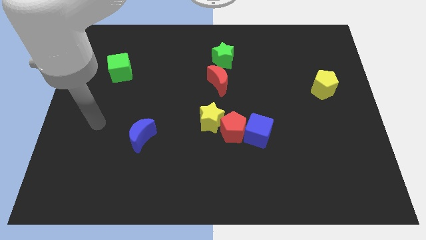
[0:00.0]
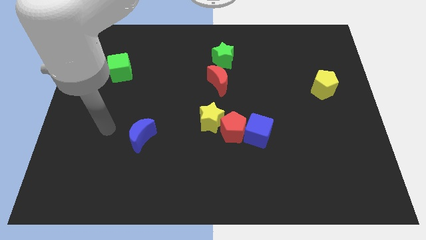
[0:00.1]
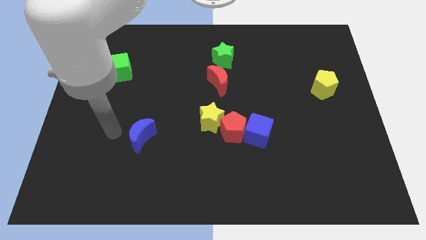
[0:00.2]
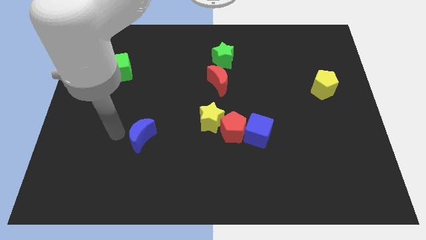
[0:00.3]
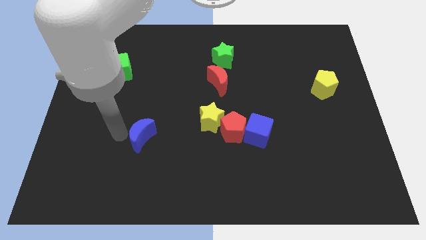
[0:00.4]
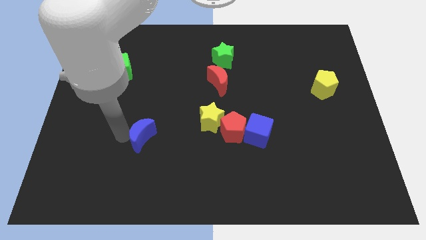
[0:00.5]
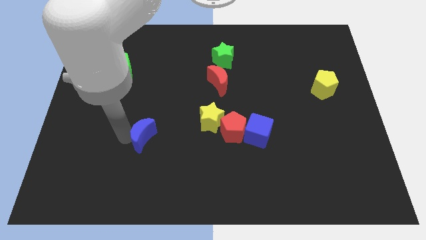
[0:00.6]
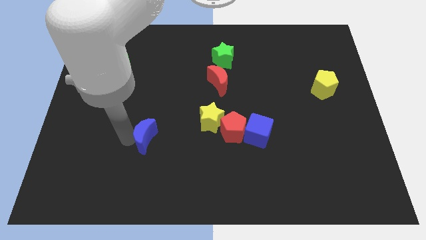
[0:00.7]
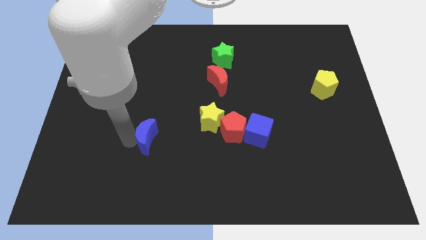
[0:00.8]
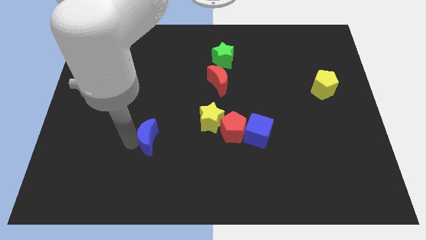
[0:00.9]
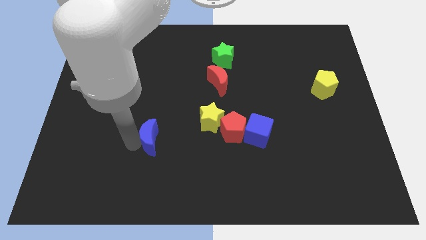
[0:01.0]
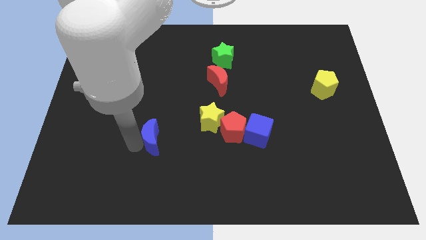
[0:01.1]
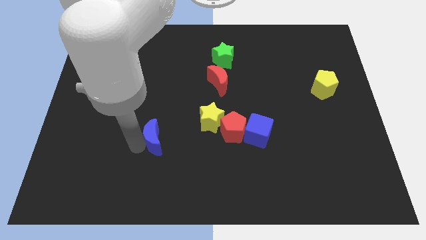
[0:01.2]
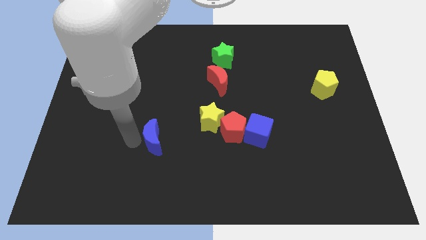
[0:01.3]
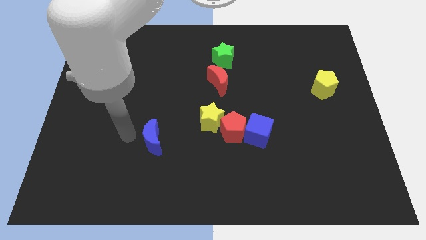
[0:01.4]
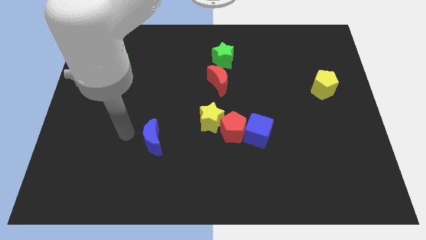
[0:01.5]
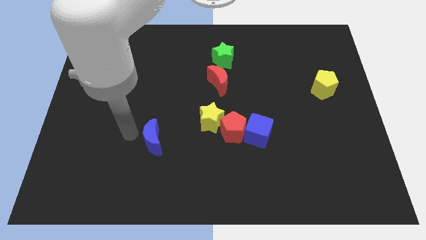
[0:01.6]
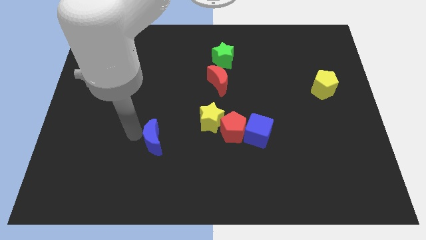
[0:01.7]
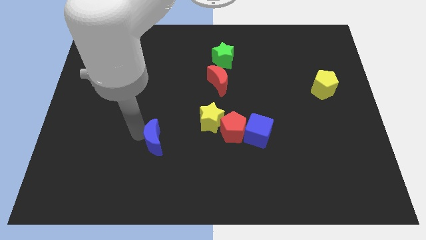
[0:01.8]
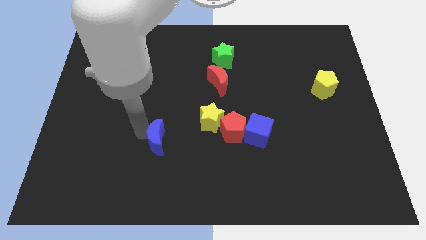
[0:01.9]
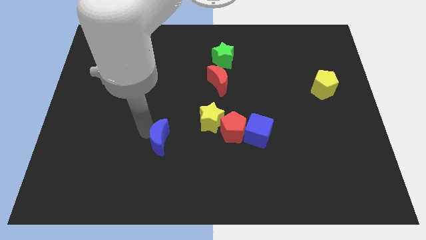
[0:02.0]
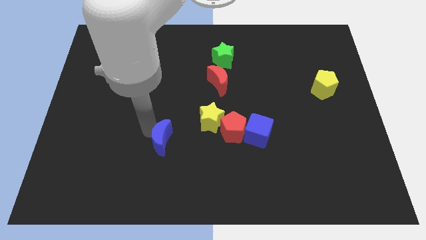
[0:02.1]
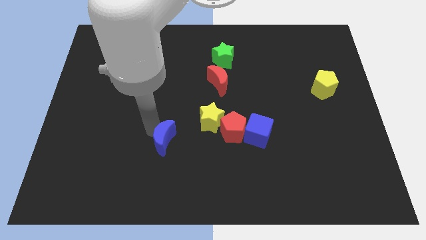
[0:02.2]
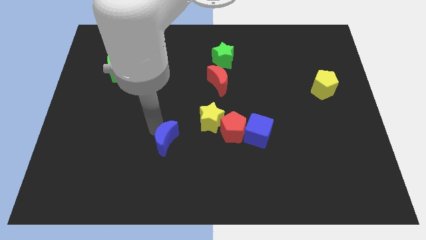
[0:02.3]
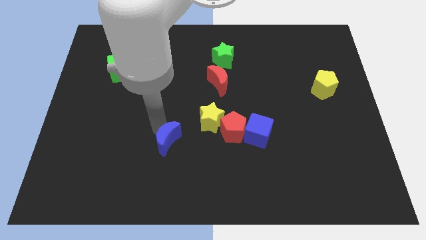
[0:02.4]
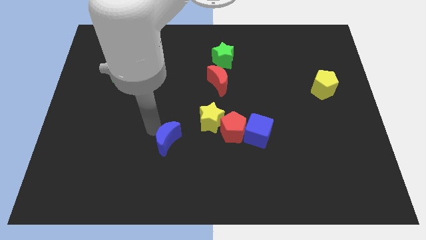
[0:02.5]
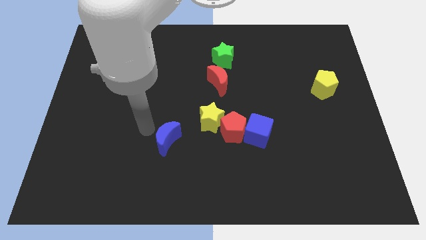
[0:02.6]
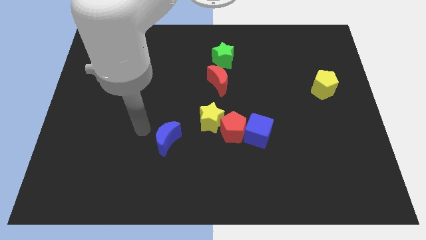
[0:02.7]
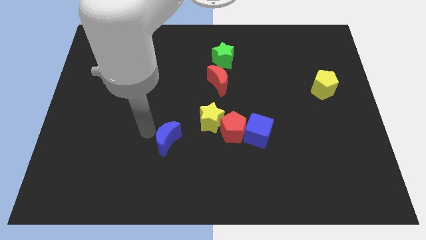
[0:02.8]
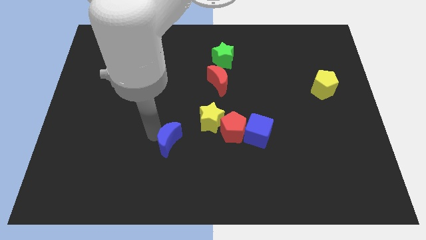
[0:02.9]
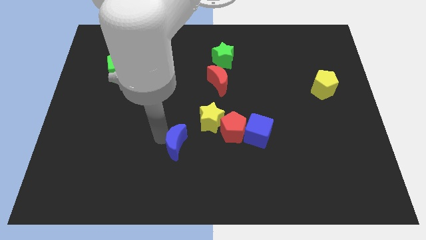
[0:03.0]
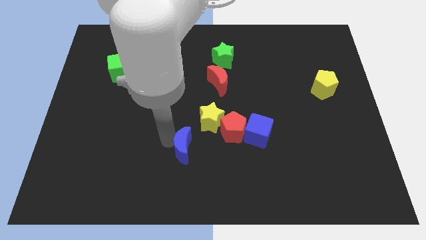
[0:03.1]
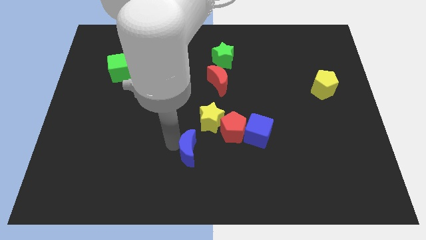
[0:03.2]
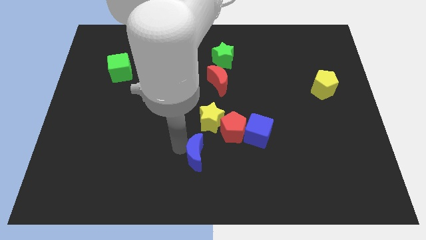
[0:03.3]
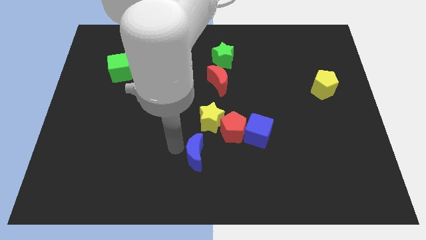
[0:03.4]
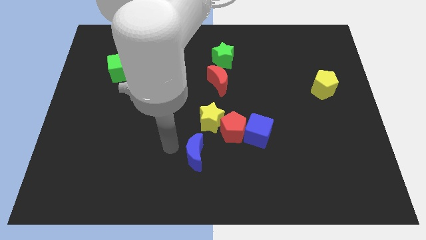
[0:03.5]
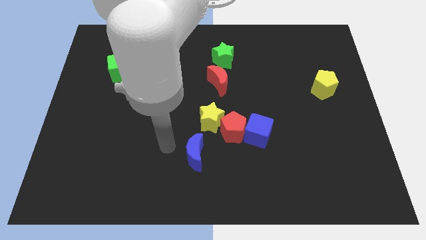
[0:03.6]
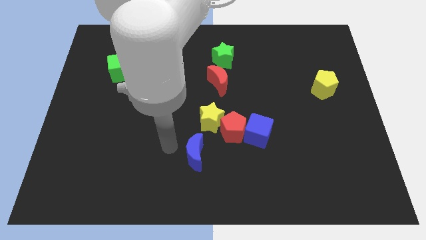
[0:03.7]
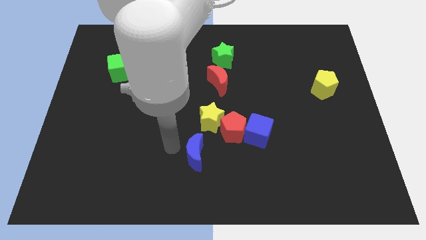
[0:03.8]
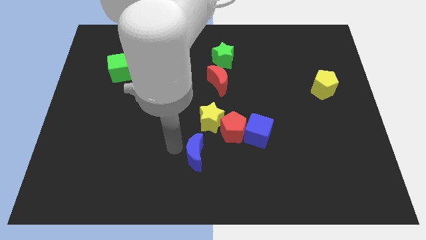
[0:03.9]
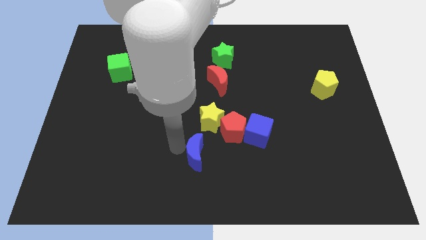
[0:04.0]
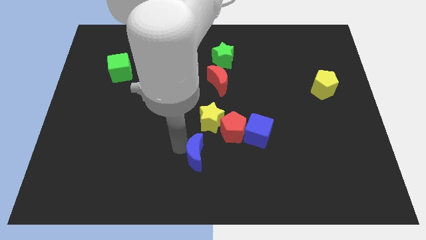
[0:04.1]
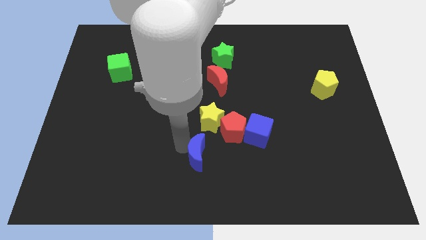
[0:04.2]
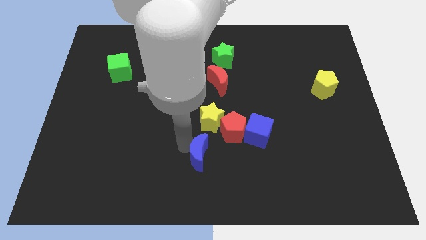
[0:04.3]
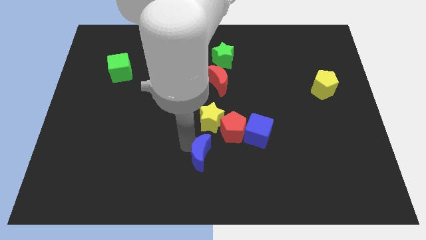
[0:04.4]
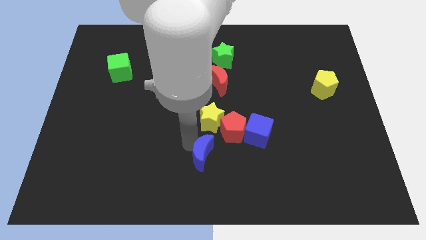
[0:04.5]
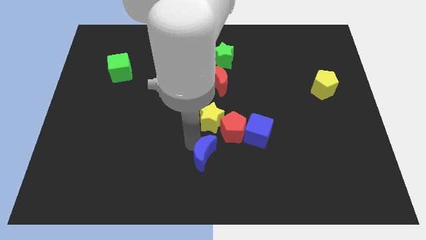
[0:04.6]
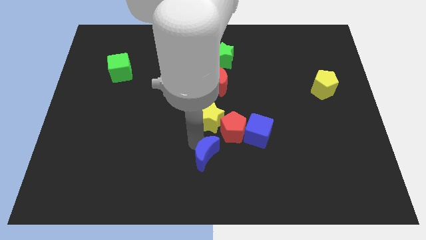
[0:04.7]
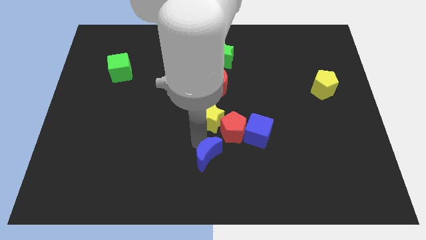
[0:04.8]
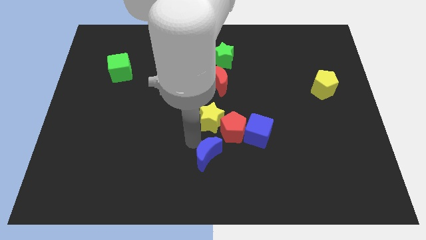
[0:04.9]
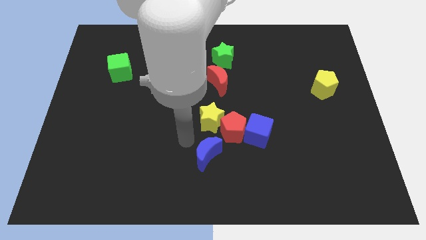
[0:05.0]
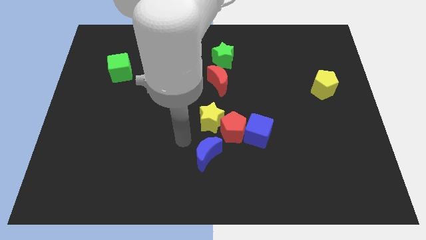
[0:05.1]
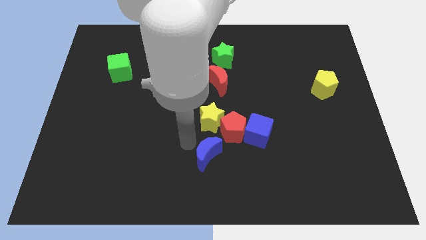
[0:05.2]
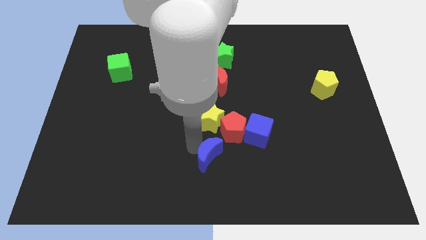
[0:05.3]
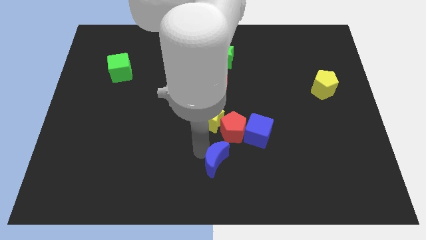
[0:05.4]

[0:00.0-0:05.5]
put the blue moon to the bottom of the red pentagon

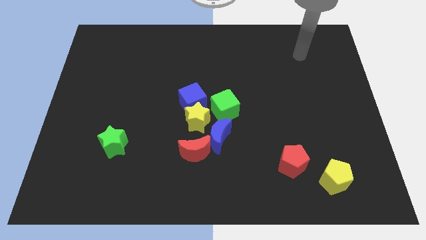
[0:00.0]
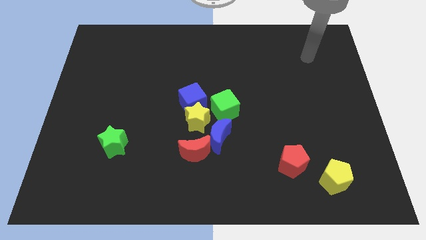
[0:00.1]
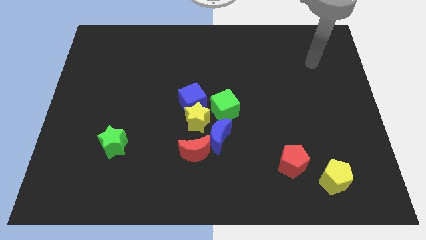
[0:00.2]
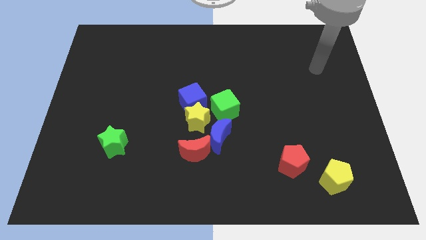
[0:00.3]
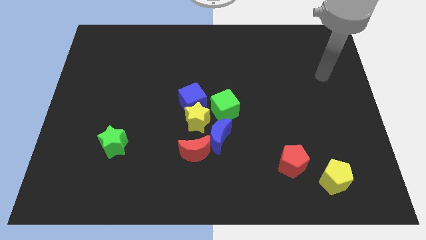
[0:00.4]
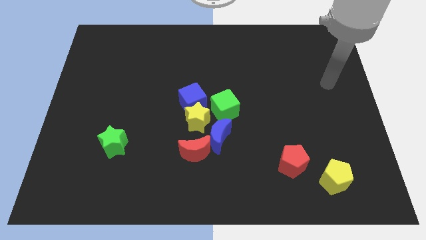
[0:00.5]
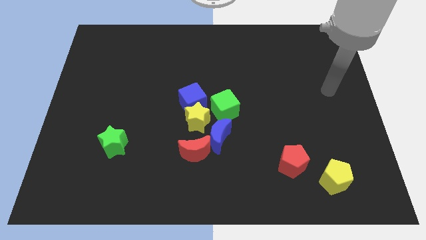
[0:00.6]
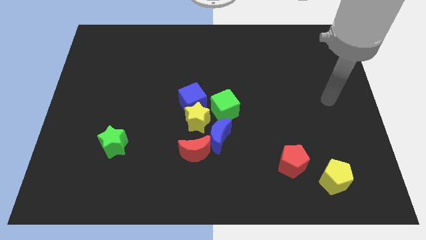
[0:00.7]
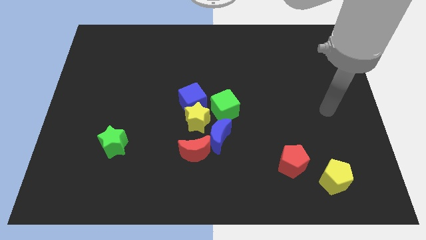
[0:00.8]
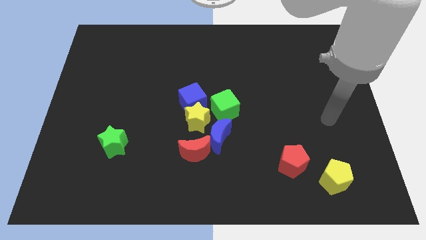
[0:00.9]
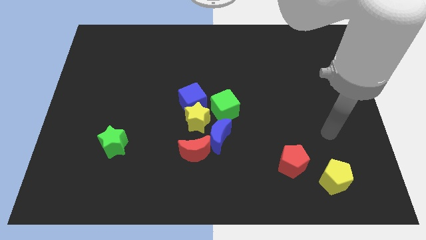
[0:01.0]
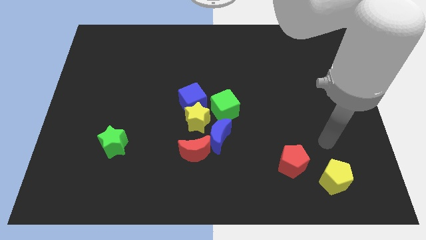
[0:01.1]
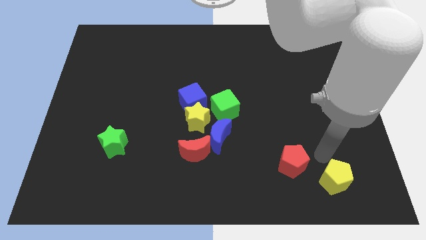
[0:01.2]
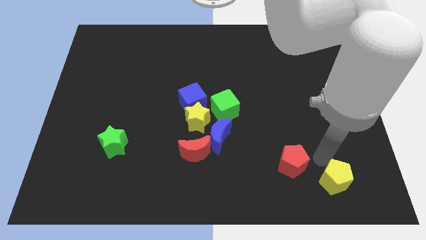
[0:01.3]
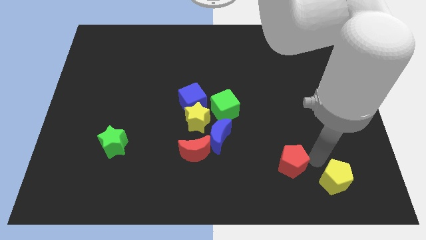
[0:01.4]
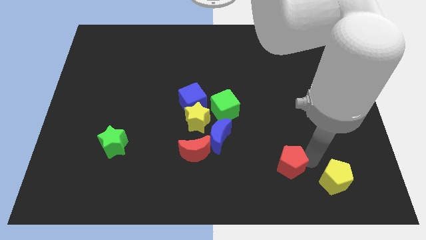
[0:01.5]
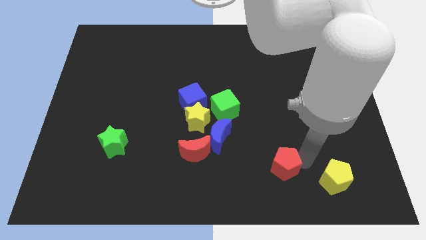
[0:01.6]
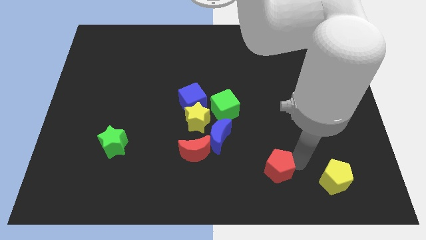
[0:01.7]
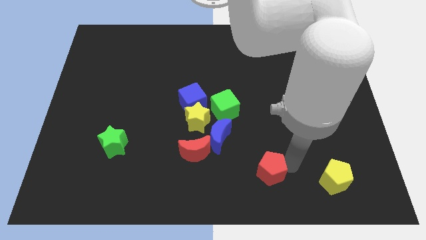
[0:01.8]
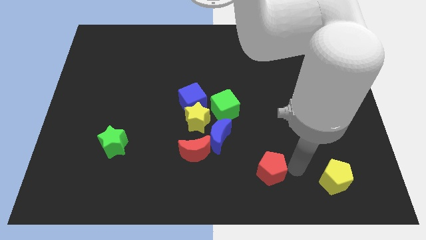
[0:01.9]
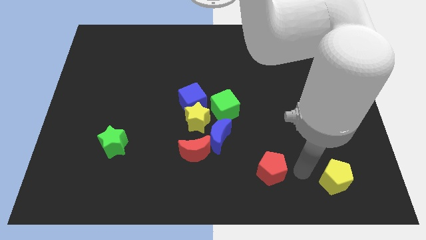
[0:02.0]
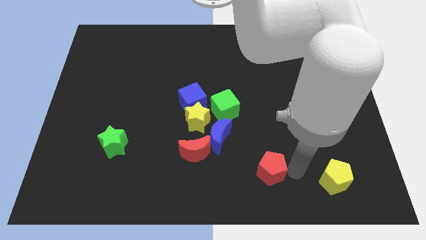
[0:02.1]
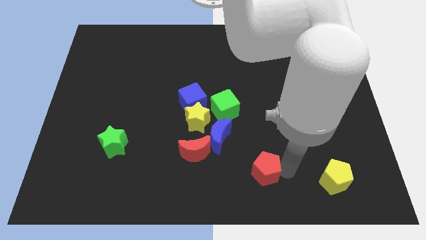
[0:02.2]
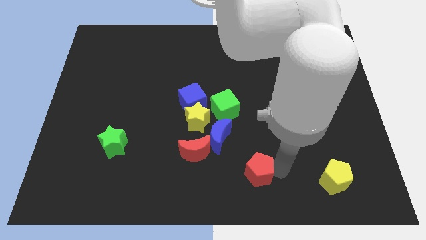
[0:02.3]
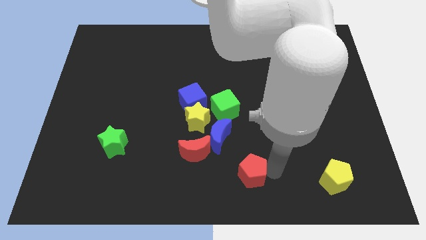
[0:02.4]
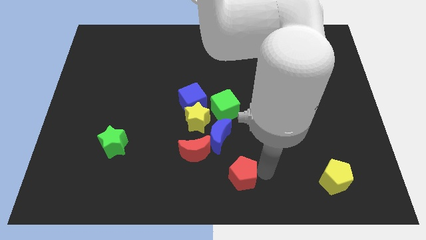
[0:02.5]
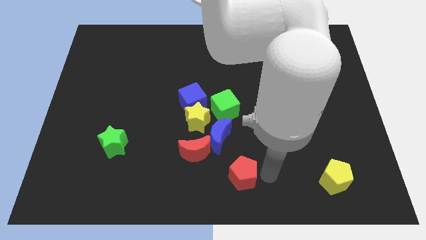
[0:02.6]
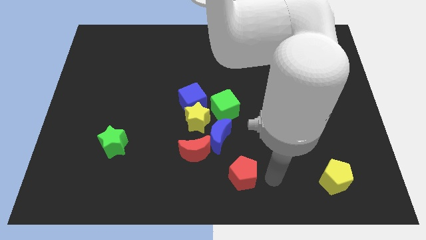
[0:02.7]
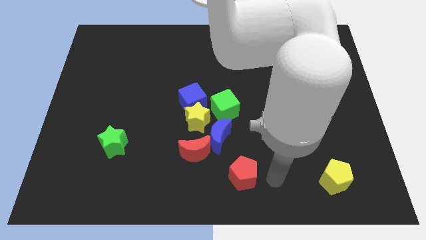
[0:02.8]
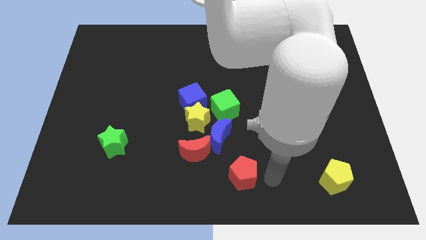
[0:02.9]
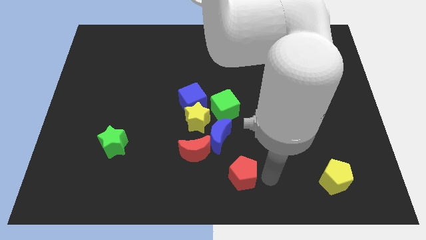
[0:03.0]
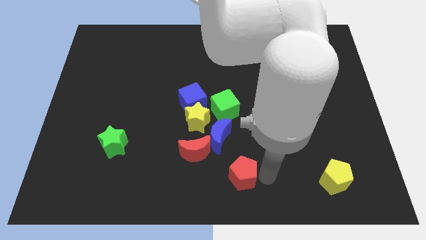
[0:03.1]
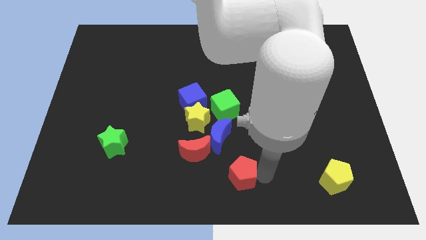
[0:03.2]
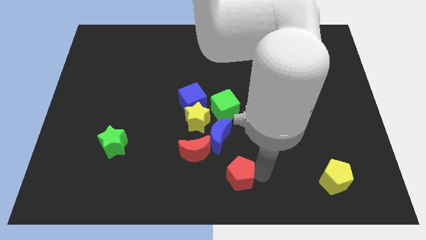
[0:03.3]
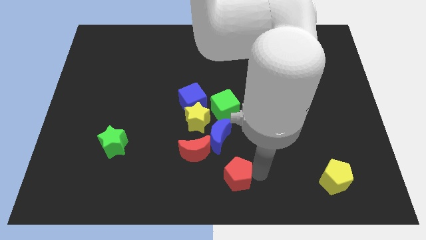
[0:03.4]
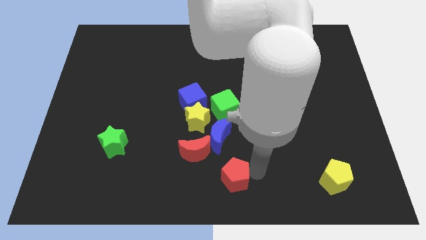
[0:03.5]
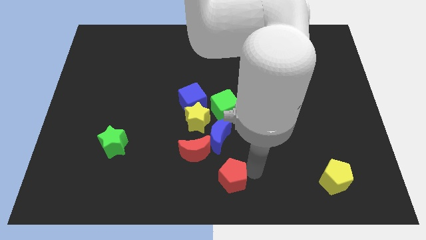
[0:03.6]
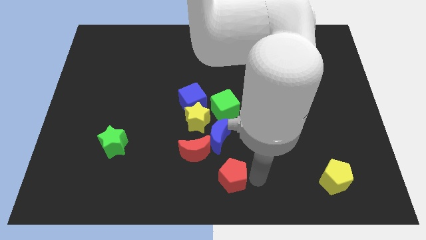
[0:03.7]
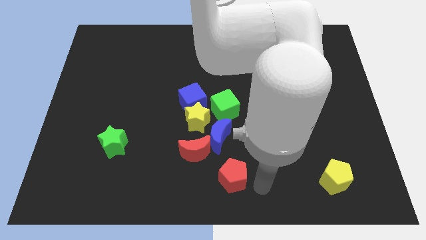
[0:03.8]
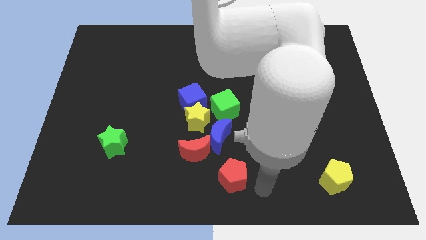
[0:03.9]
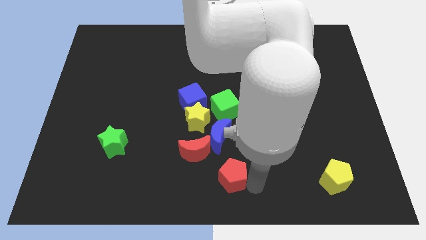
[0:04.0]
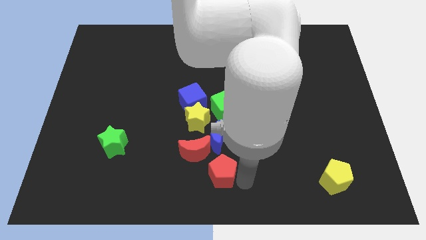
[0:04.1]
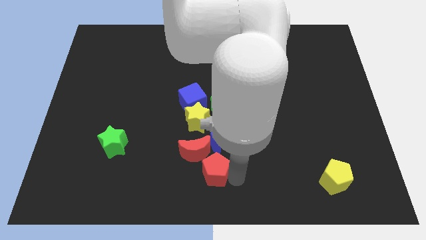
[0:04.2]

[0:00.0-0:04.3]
push the red pentagon below the yellow star
